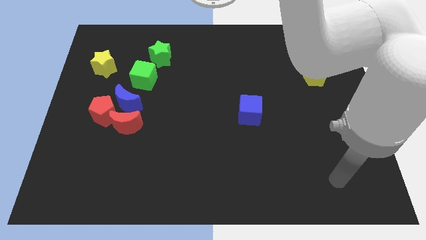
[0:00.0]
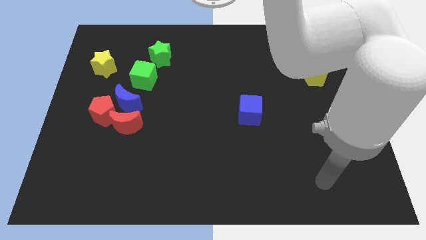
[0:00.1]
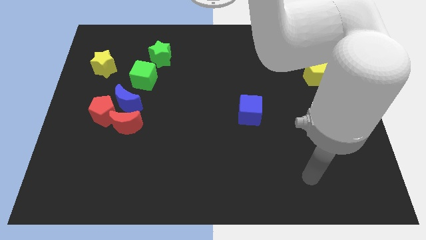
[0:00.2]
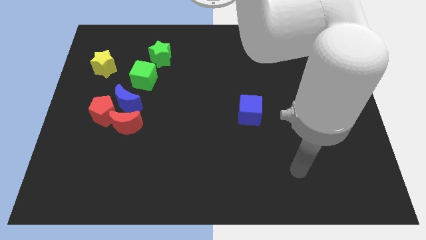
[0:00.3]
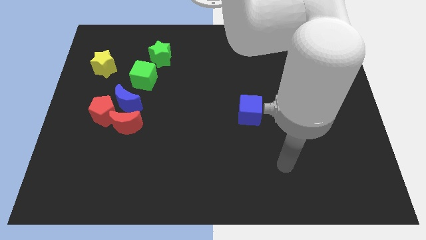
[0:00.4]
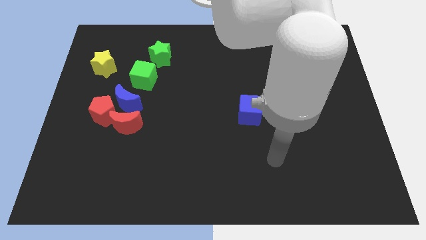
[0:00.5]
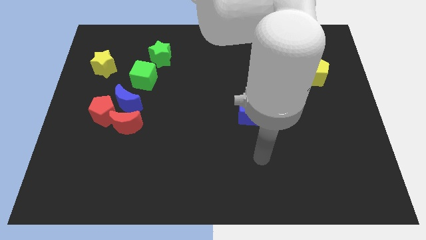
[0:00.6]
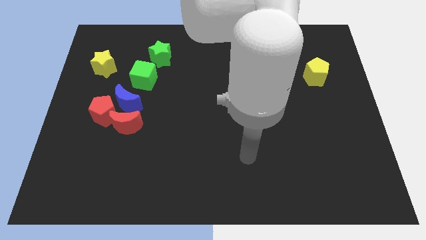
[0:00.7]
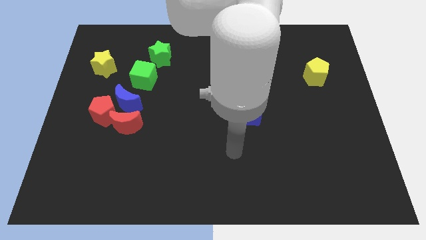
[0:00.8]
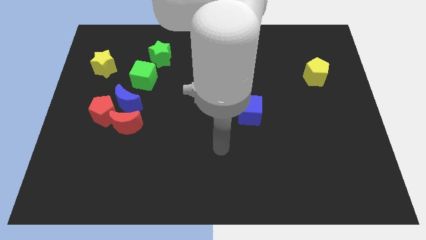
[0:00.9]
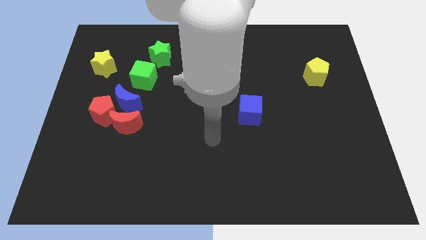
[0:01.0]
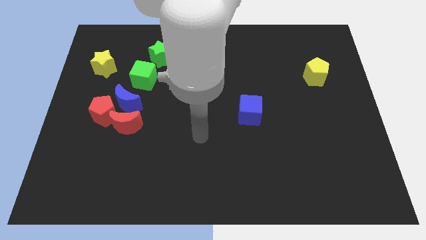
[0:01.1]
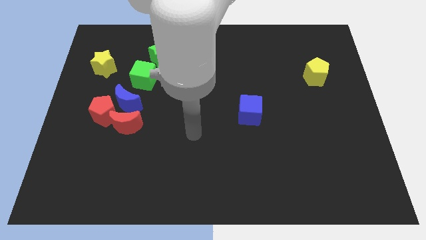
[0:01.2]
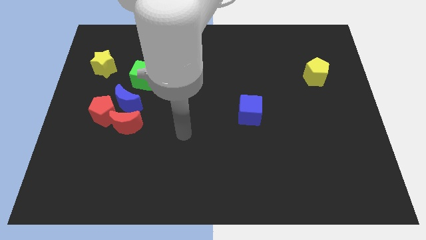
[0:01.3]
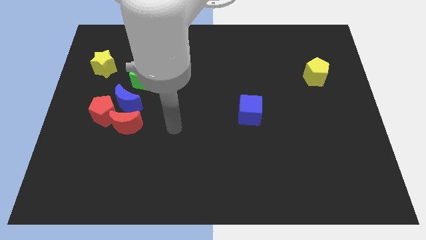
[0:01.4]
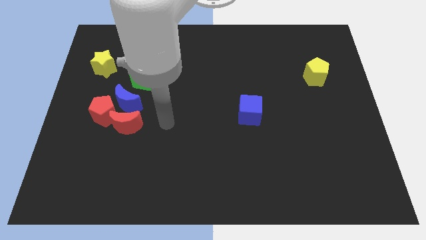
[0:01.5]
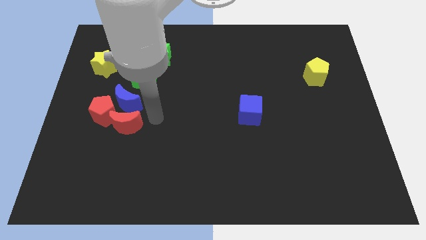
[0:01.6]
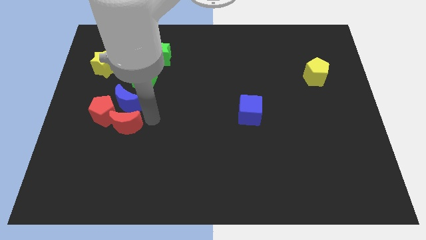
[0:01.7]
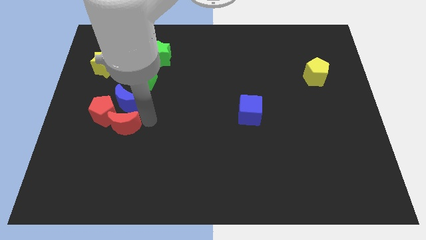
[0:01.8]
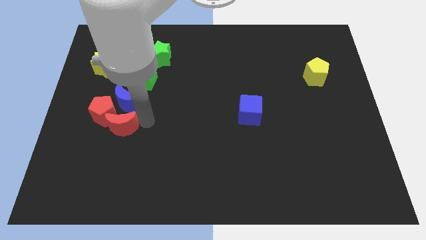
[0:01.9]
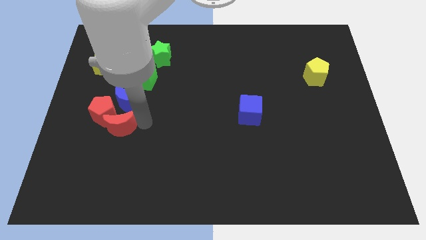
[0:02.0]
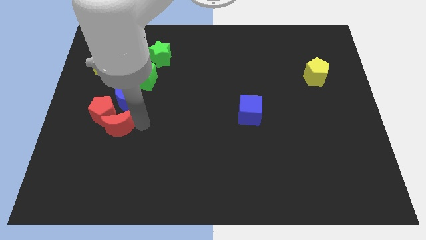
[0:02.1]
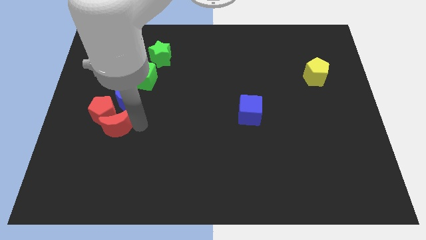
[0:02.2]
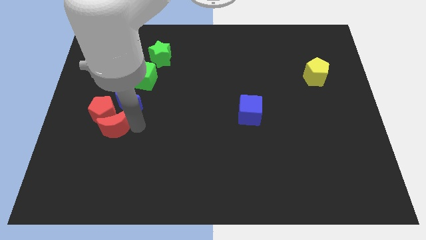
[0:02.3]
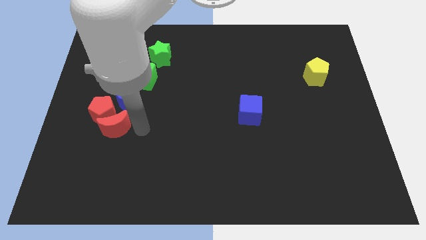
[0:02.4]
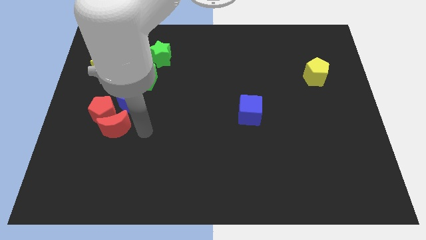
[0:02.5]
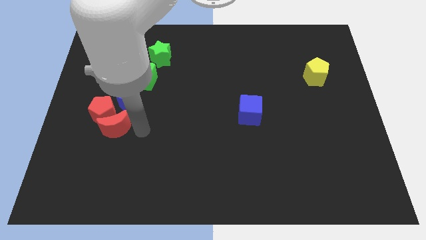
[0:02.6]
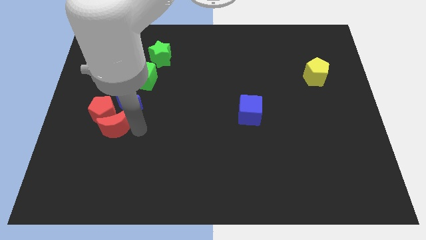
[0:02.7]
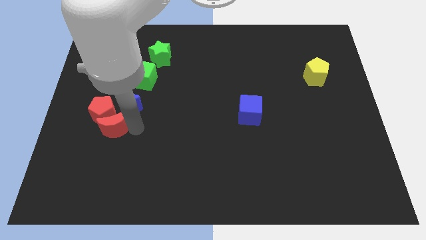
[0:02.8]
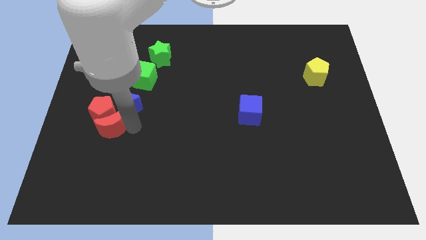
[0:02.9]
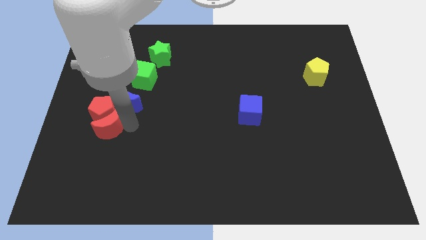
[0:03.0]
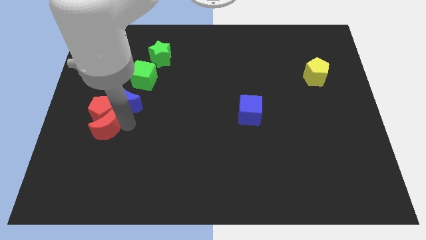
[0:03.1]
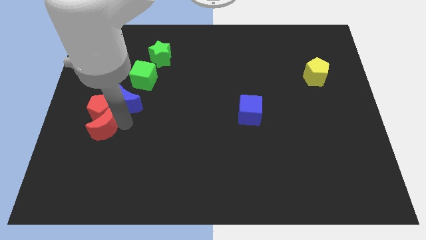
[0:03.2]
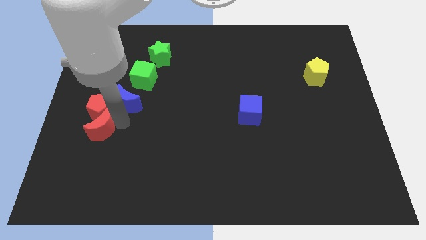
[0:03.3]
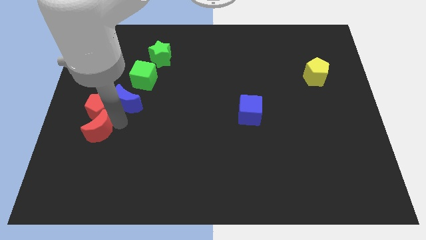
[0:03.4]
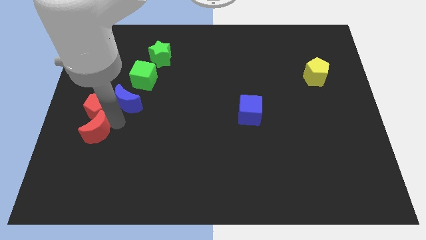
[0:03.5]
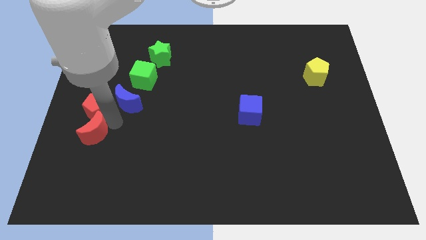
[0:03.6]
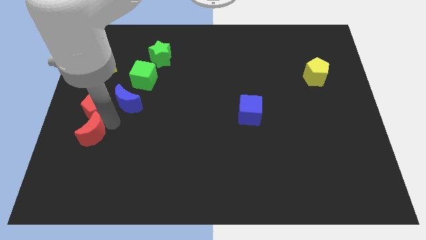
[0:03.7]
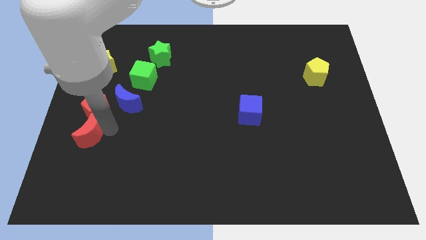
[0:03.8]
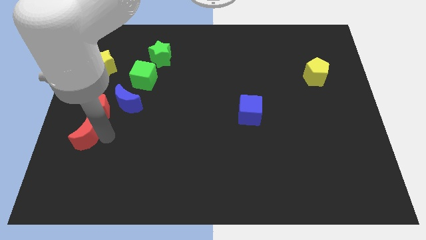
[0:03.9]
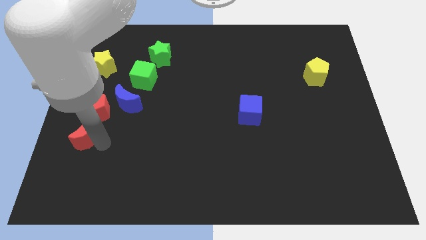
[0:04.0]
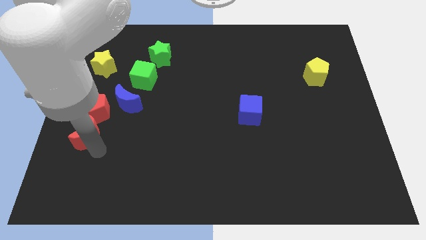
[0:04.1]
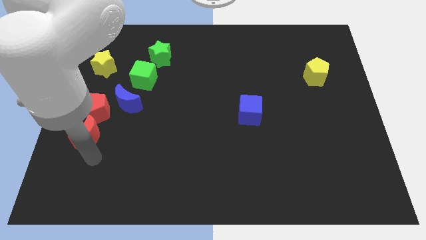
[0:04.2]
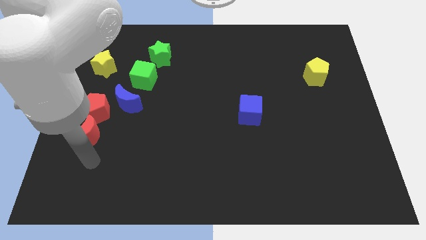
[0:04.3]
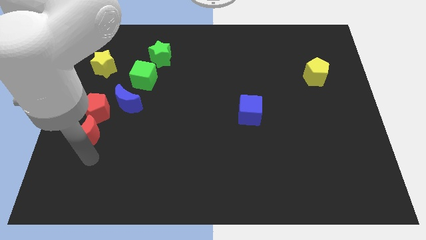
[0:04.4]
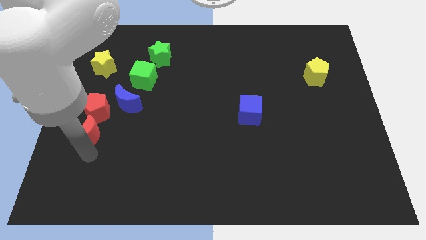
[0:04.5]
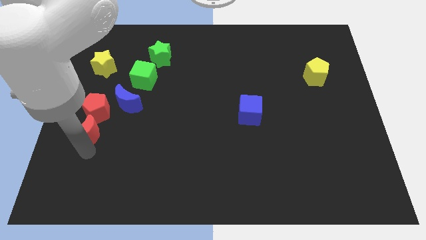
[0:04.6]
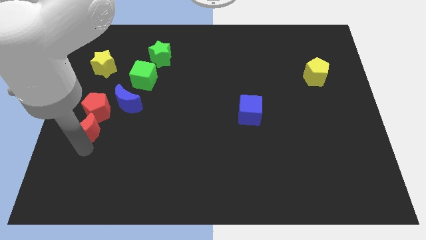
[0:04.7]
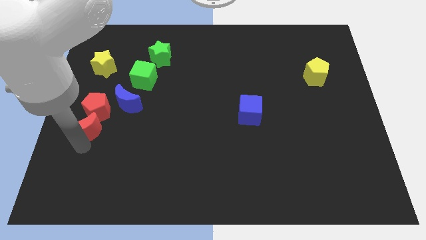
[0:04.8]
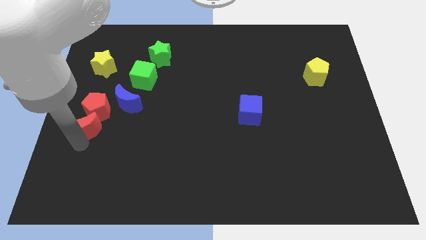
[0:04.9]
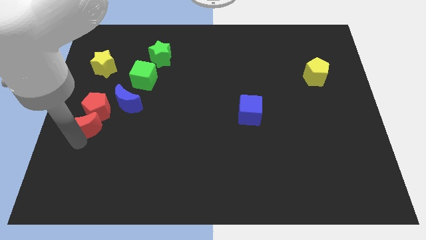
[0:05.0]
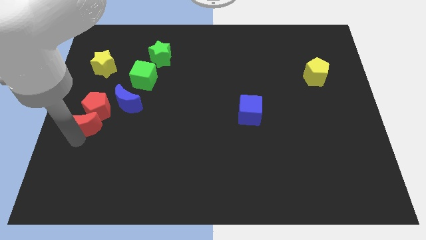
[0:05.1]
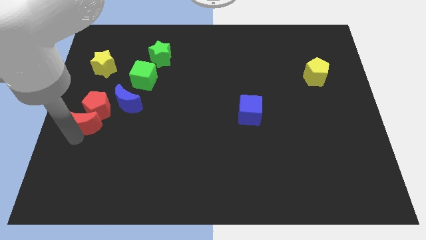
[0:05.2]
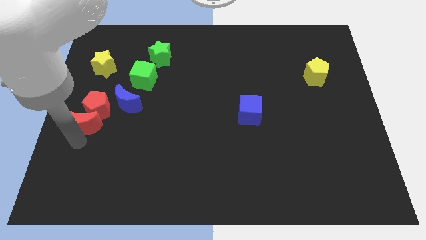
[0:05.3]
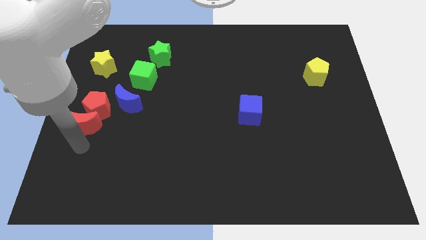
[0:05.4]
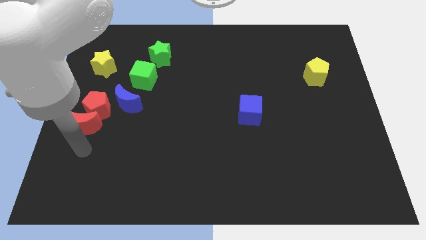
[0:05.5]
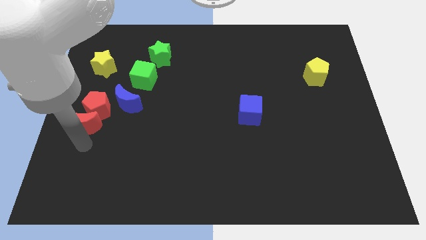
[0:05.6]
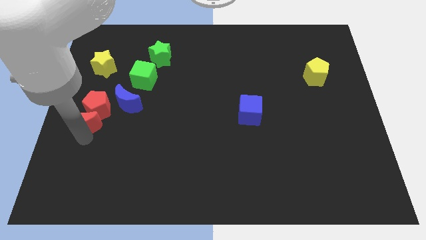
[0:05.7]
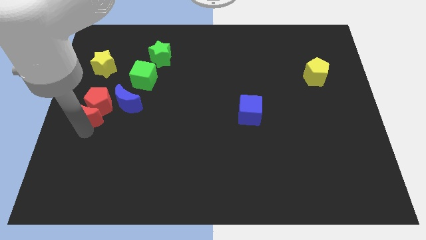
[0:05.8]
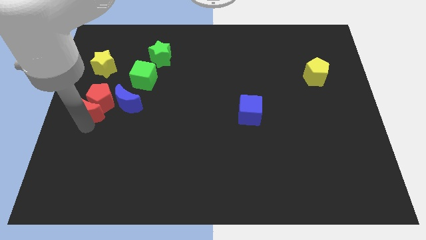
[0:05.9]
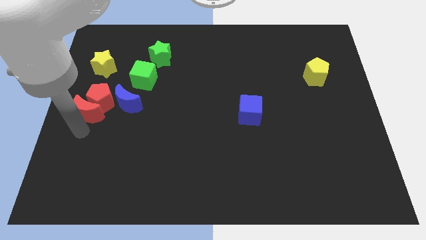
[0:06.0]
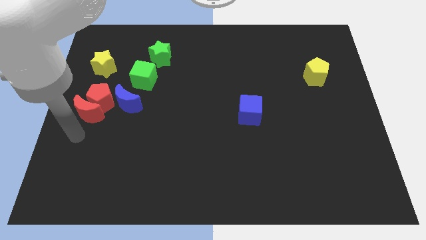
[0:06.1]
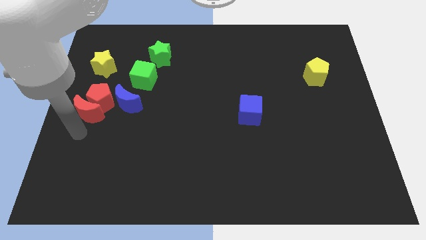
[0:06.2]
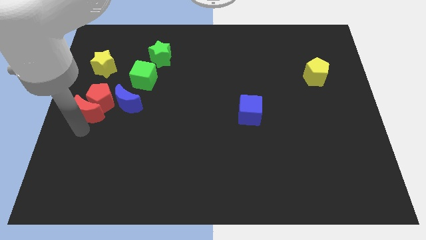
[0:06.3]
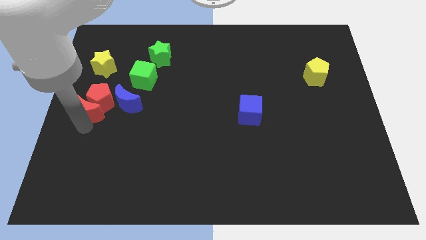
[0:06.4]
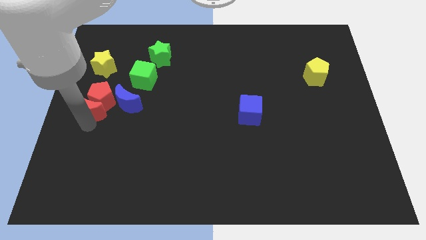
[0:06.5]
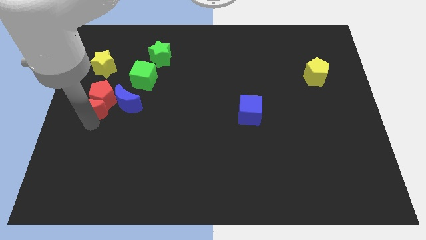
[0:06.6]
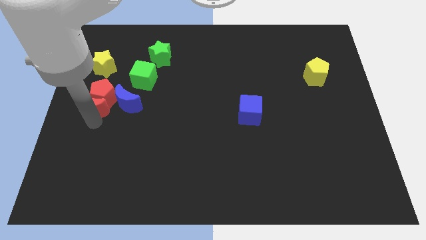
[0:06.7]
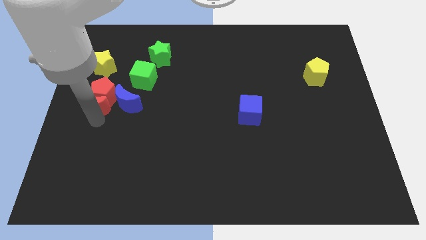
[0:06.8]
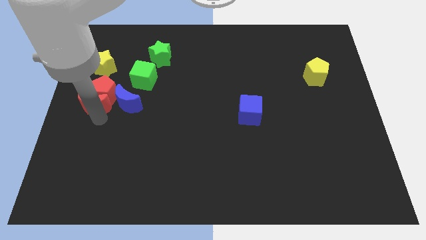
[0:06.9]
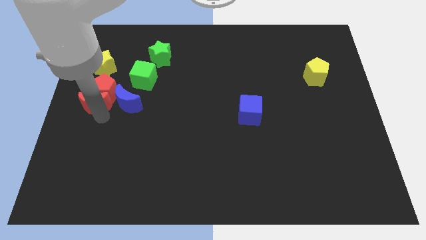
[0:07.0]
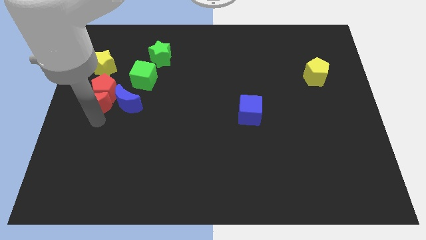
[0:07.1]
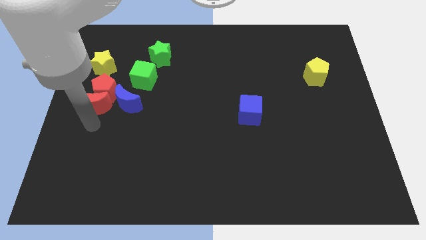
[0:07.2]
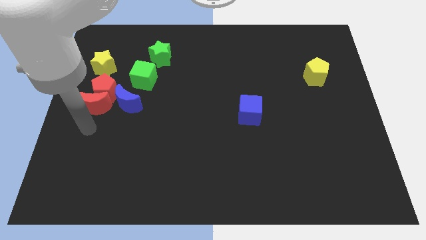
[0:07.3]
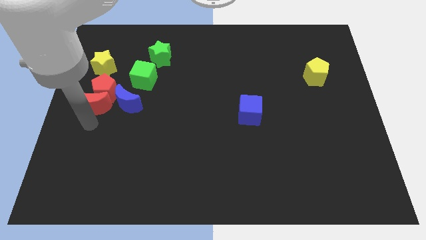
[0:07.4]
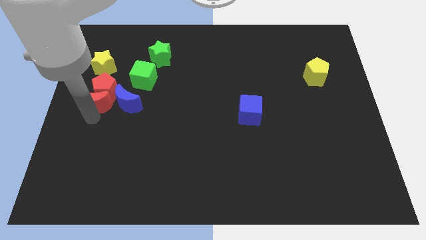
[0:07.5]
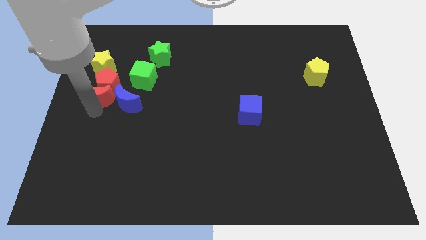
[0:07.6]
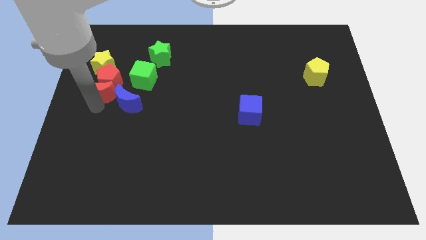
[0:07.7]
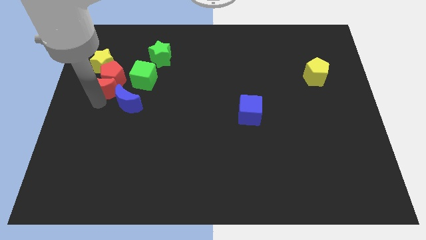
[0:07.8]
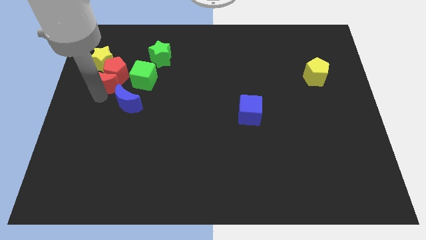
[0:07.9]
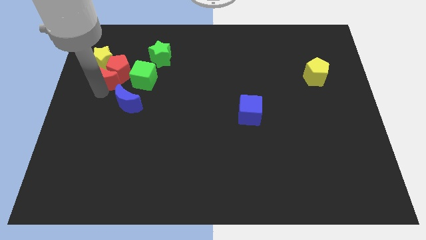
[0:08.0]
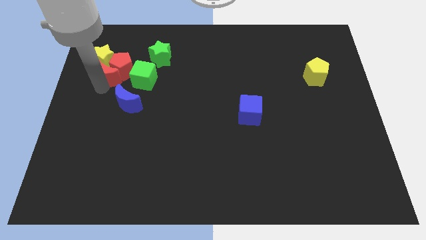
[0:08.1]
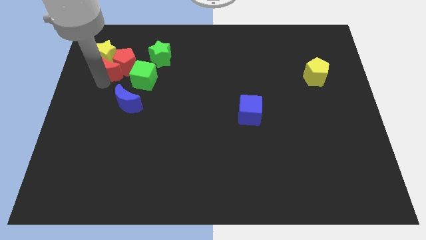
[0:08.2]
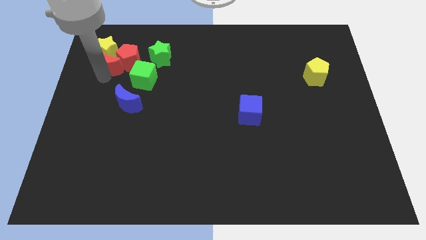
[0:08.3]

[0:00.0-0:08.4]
move the red moon to the top left of the green cube
